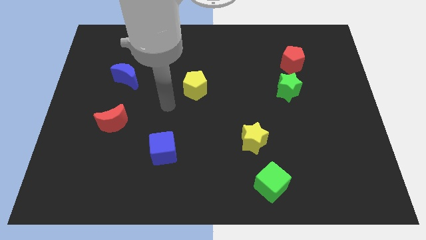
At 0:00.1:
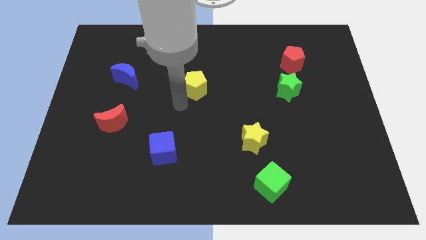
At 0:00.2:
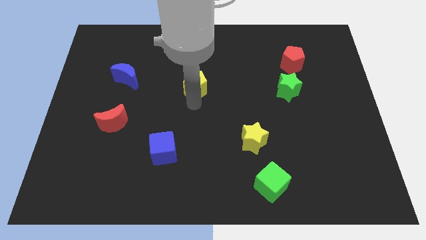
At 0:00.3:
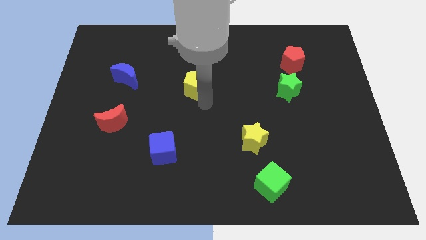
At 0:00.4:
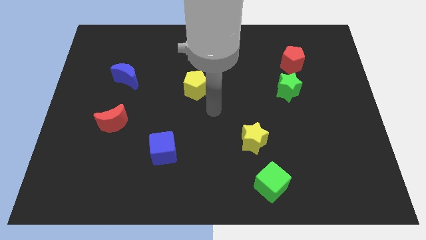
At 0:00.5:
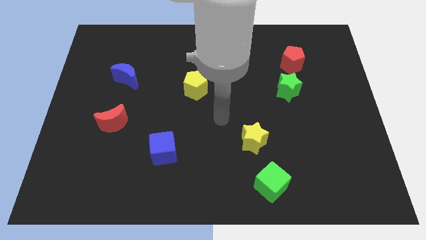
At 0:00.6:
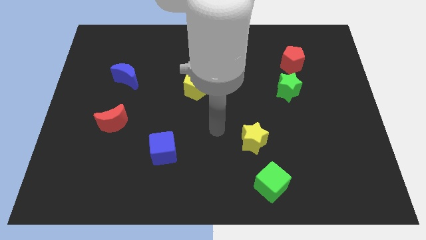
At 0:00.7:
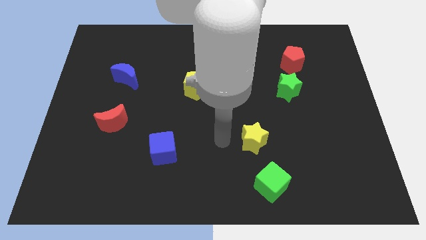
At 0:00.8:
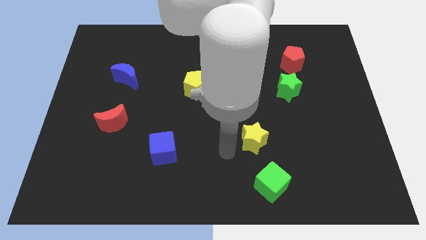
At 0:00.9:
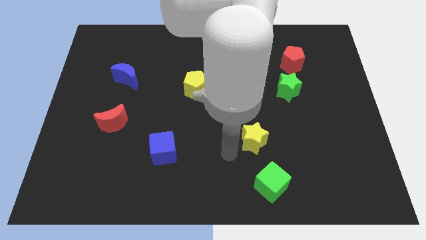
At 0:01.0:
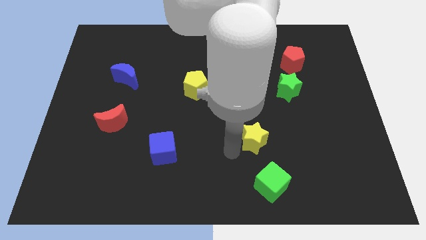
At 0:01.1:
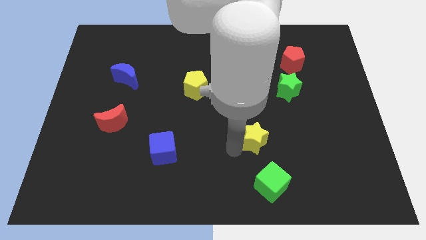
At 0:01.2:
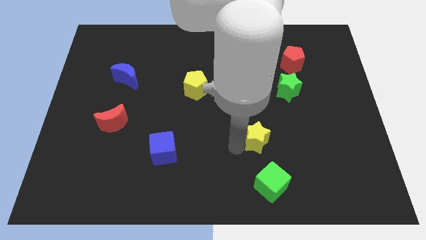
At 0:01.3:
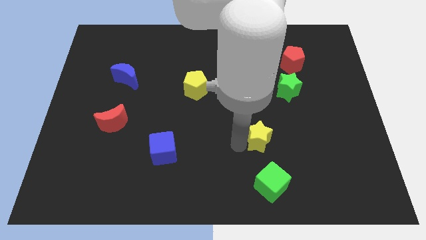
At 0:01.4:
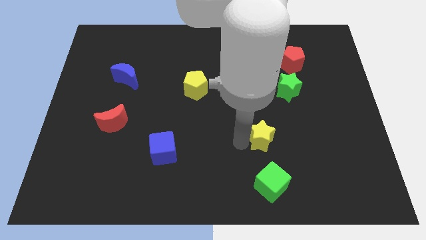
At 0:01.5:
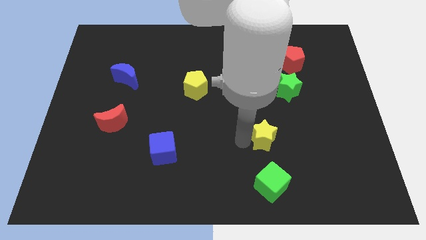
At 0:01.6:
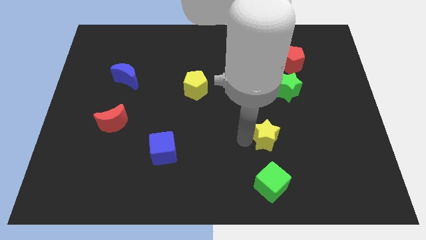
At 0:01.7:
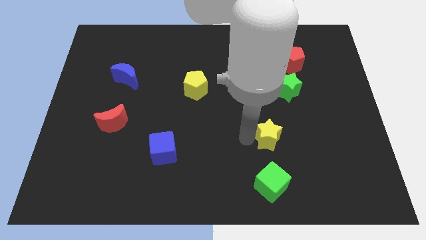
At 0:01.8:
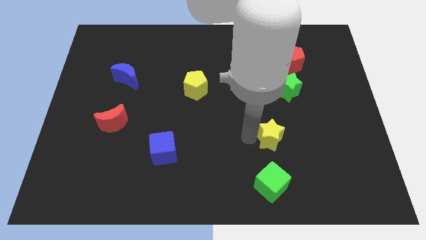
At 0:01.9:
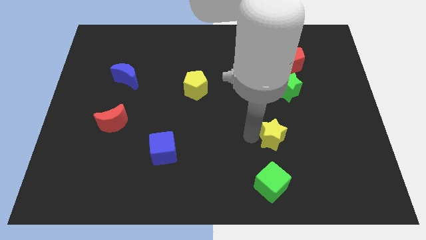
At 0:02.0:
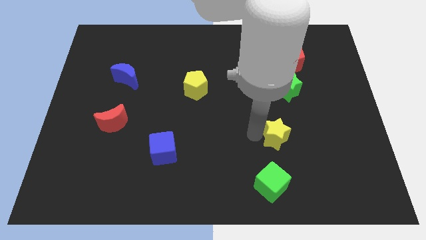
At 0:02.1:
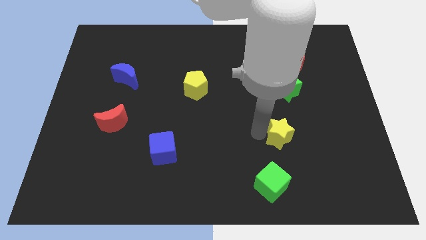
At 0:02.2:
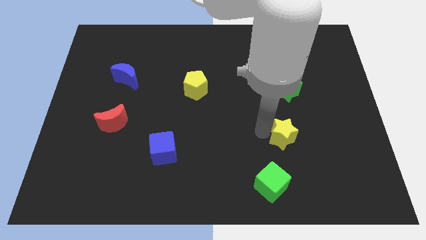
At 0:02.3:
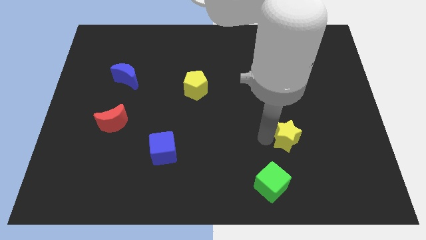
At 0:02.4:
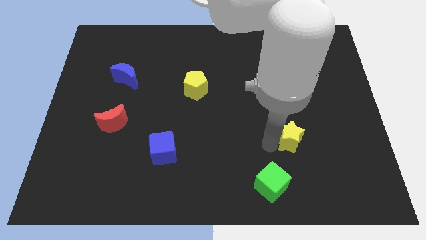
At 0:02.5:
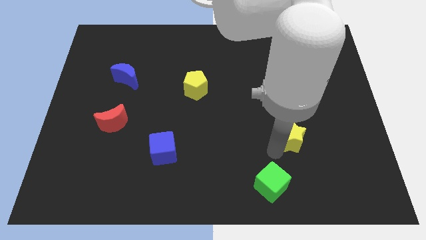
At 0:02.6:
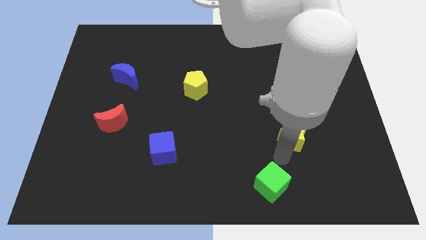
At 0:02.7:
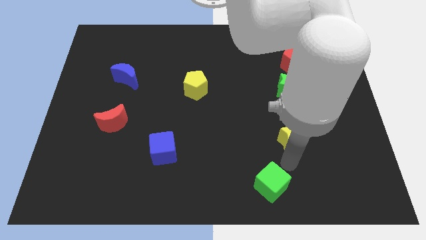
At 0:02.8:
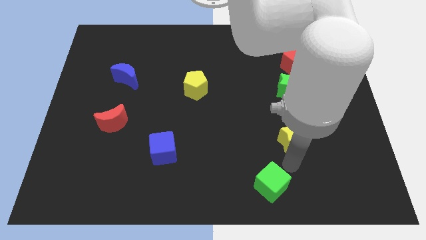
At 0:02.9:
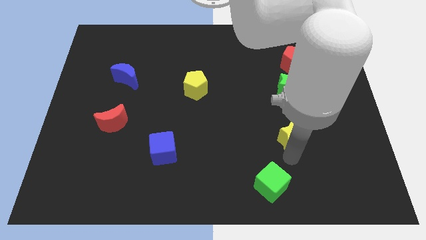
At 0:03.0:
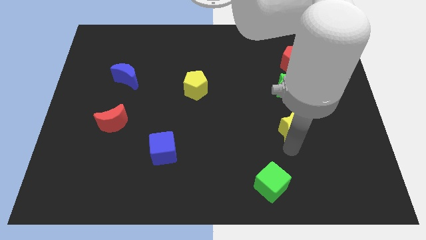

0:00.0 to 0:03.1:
push the yellow star a little upwards and right diagonally

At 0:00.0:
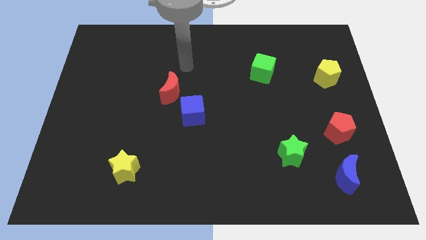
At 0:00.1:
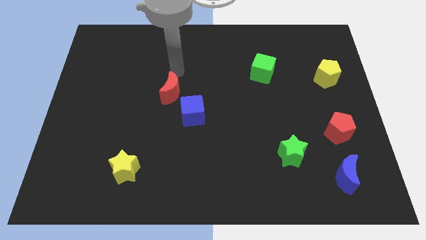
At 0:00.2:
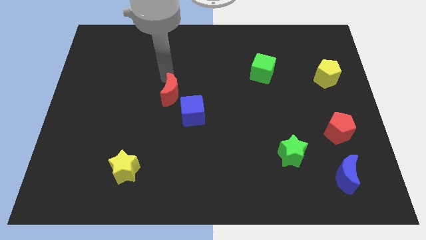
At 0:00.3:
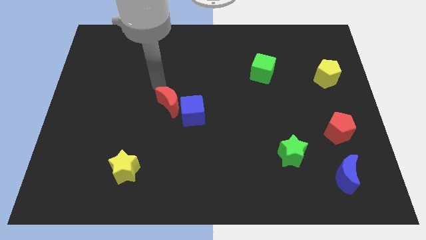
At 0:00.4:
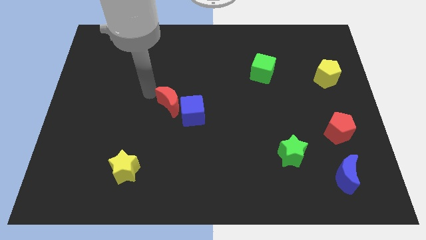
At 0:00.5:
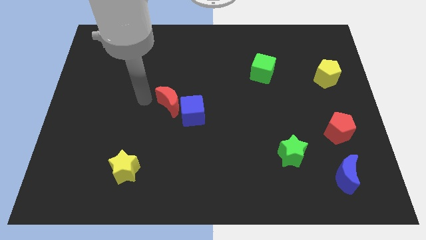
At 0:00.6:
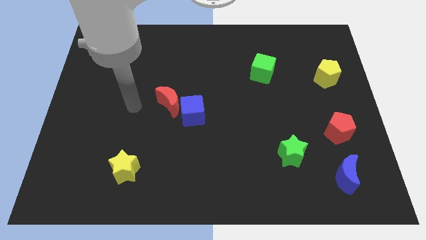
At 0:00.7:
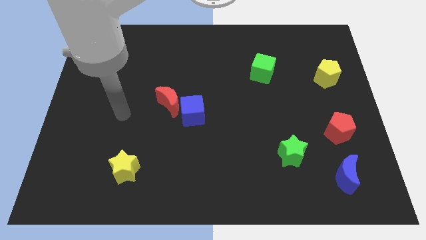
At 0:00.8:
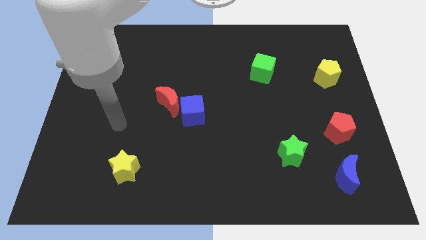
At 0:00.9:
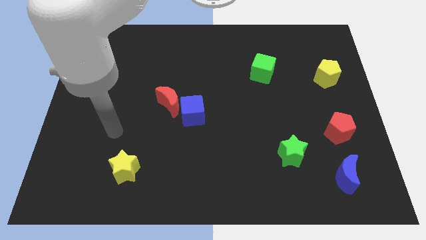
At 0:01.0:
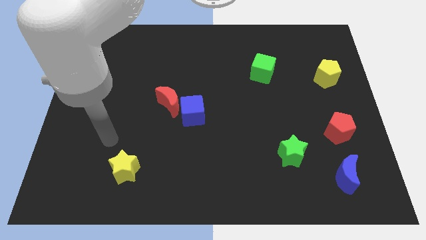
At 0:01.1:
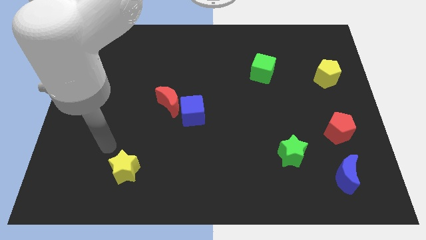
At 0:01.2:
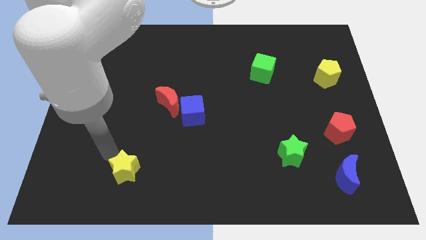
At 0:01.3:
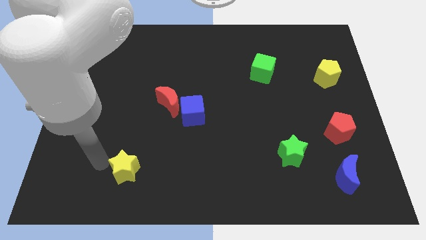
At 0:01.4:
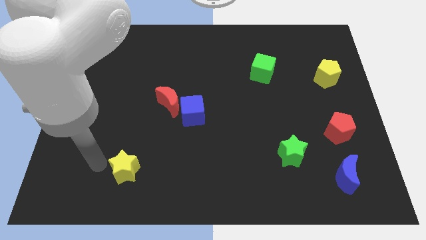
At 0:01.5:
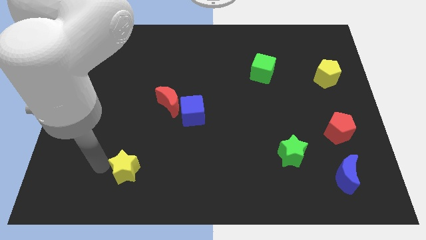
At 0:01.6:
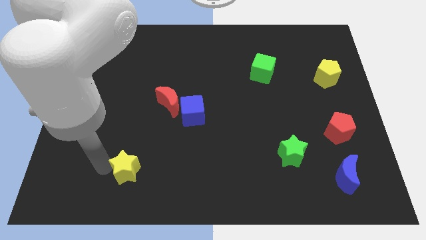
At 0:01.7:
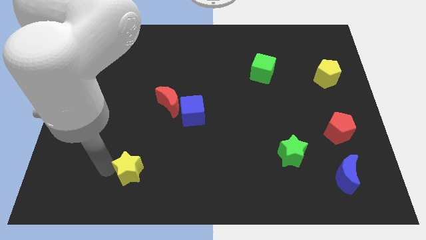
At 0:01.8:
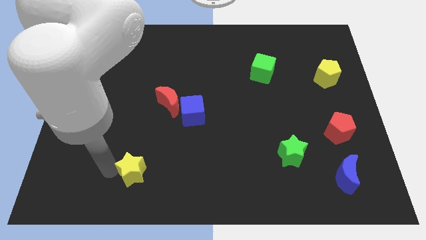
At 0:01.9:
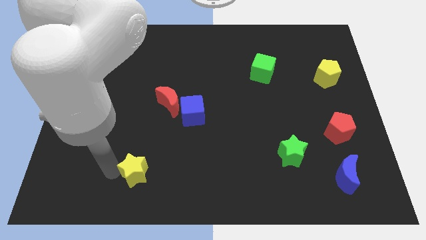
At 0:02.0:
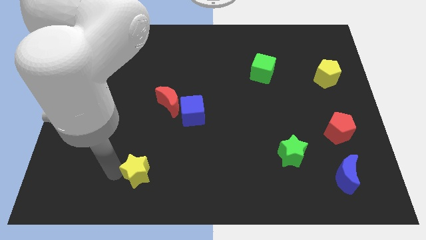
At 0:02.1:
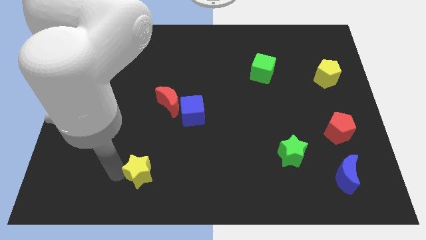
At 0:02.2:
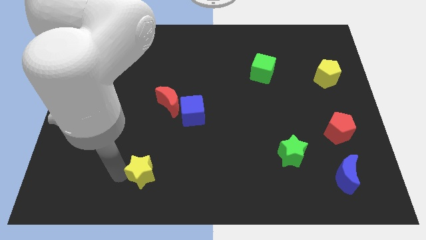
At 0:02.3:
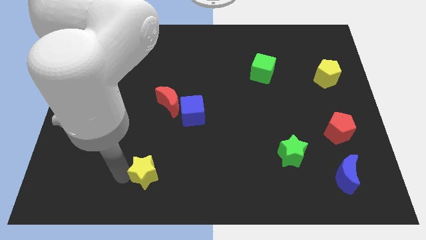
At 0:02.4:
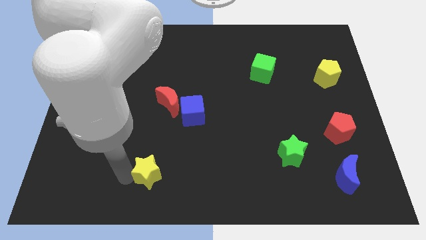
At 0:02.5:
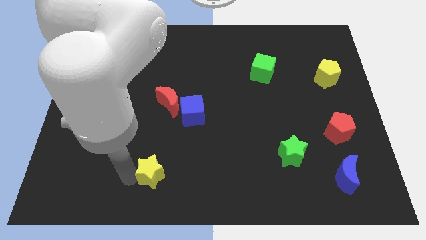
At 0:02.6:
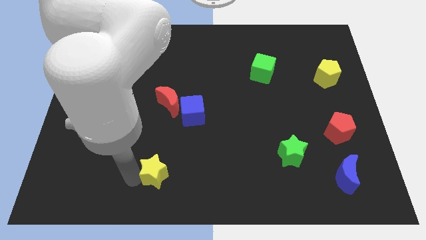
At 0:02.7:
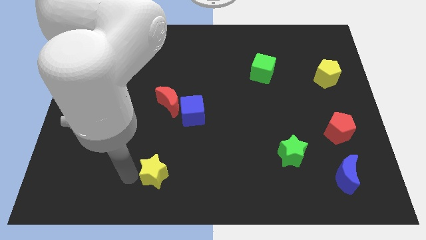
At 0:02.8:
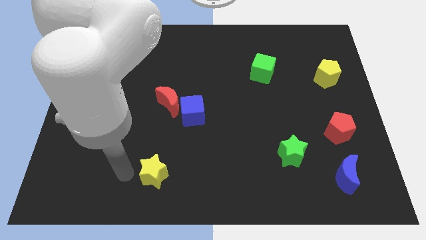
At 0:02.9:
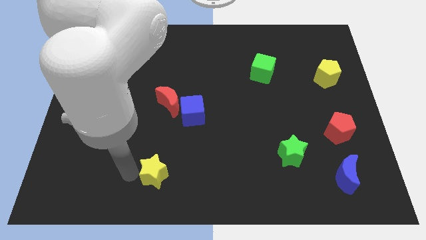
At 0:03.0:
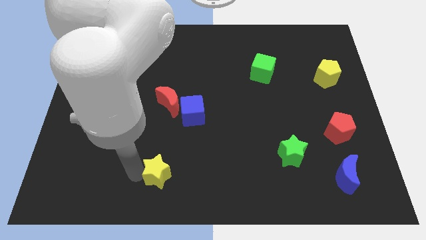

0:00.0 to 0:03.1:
slide the yellow star right a little bit

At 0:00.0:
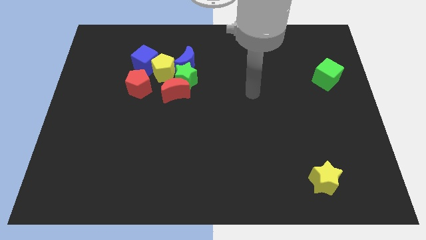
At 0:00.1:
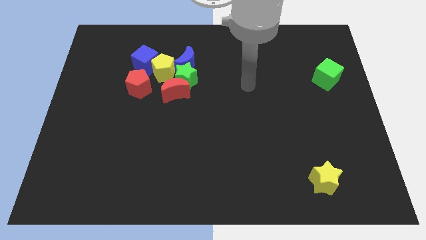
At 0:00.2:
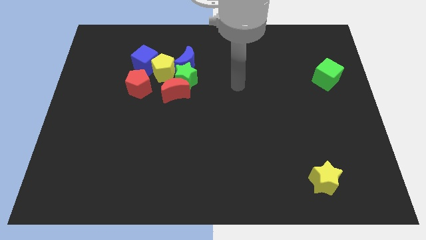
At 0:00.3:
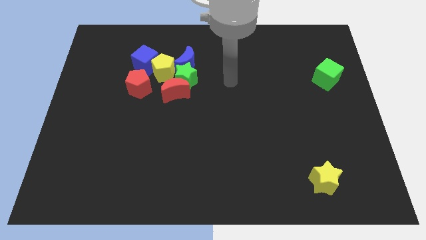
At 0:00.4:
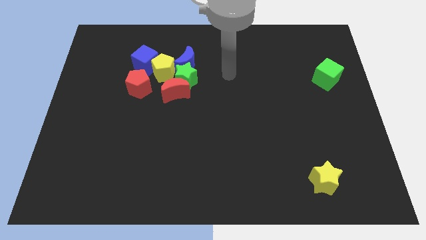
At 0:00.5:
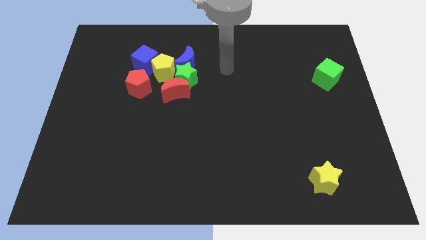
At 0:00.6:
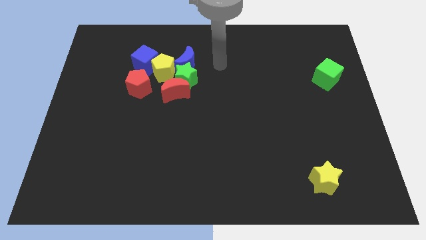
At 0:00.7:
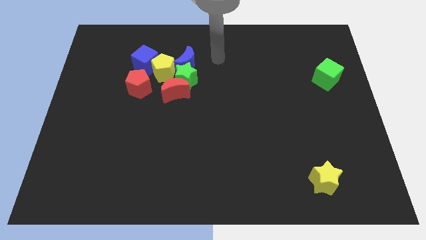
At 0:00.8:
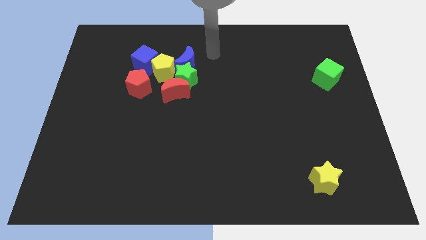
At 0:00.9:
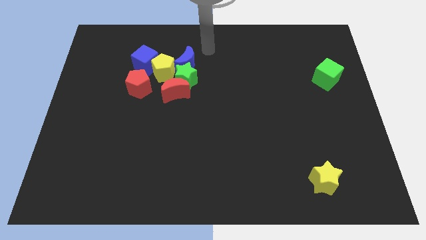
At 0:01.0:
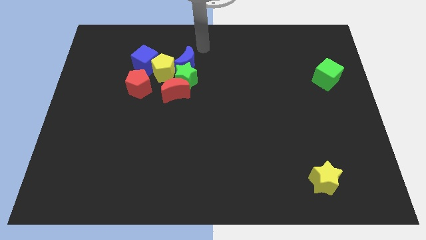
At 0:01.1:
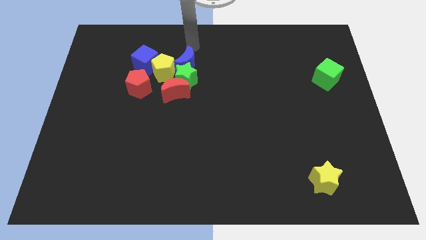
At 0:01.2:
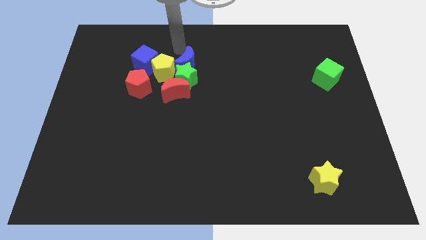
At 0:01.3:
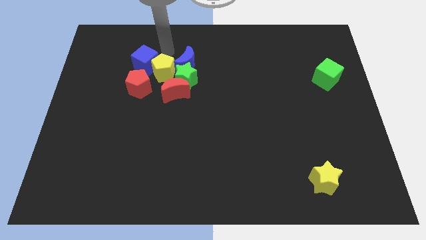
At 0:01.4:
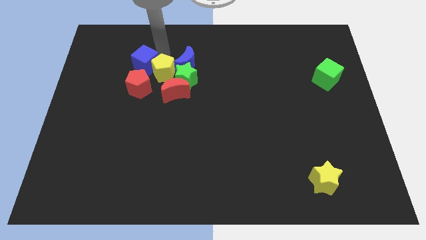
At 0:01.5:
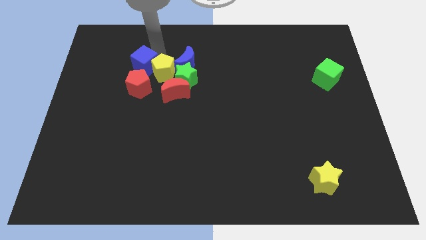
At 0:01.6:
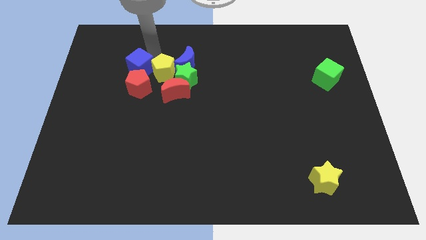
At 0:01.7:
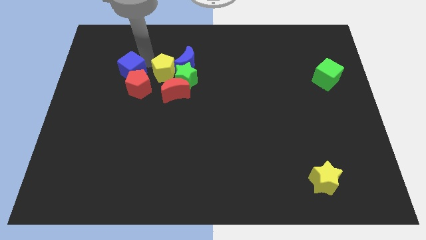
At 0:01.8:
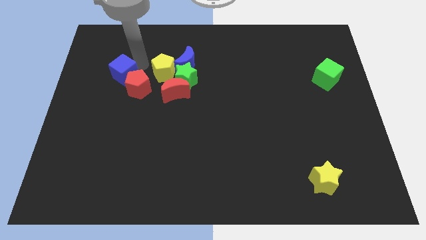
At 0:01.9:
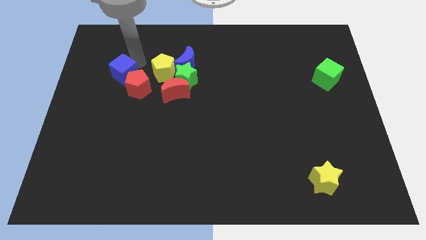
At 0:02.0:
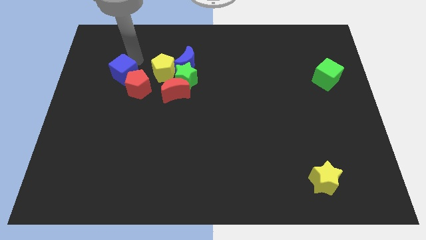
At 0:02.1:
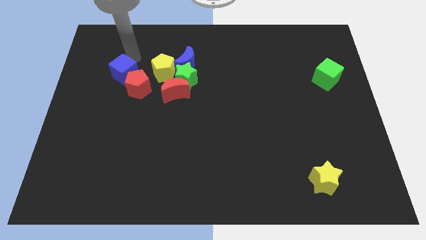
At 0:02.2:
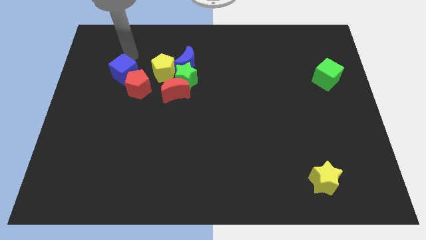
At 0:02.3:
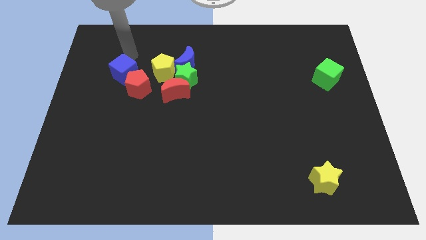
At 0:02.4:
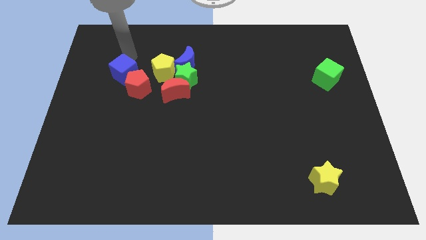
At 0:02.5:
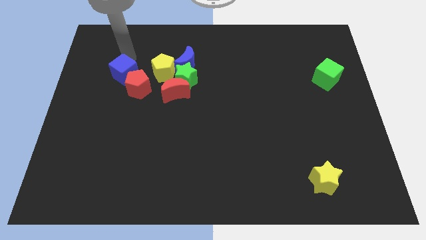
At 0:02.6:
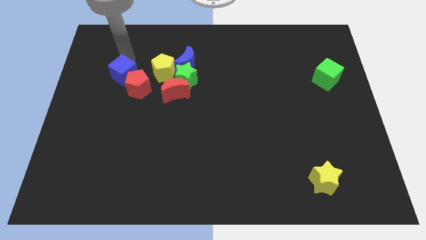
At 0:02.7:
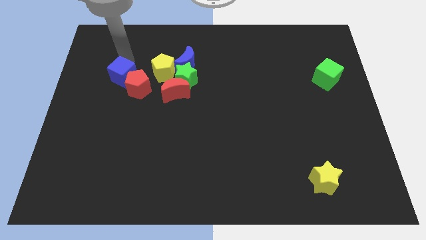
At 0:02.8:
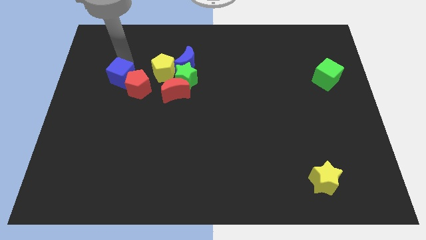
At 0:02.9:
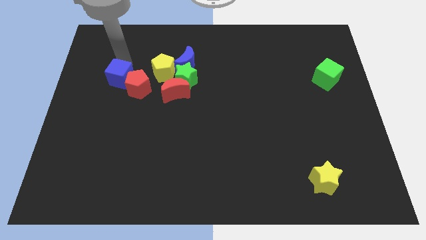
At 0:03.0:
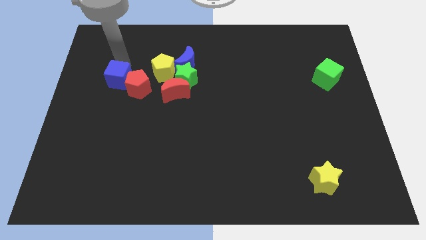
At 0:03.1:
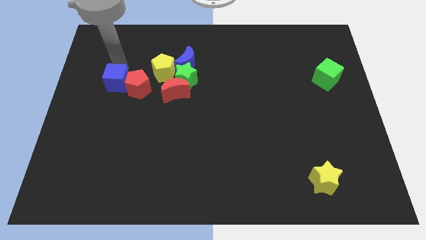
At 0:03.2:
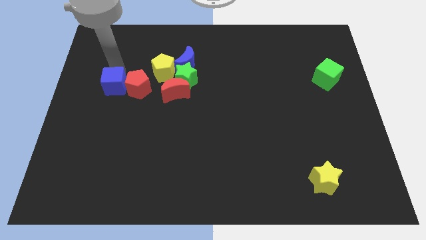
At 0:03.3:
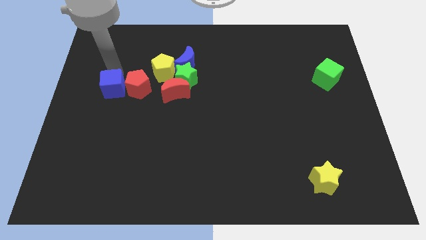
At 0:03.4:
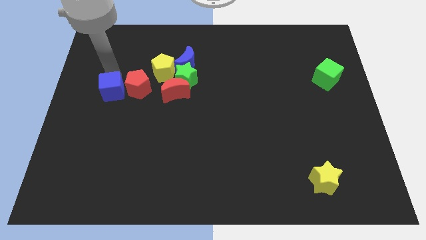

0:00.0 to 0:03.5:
push the blue cube down a little
